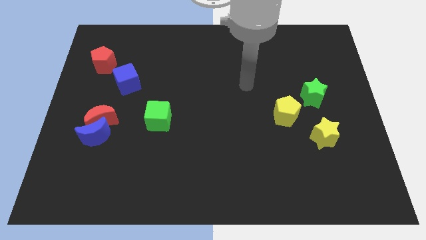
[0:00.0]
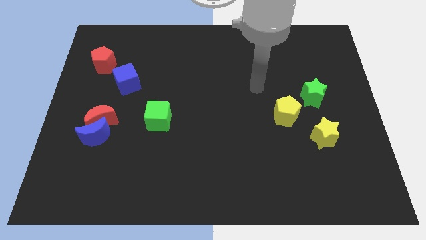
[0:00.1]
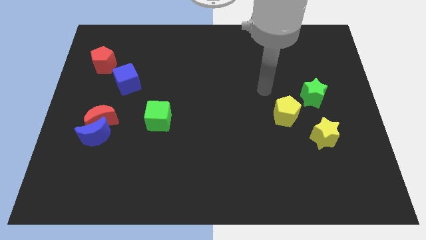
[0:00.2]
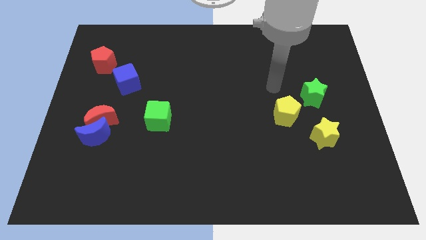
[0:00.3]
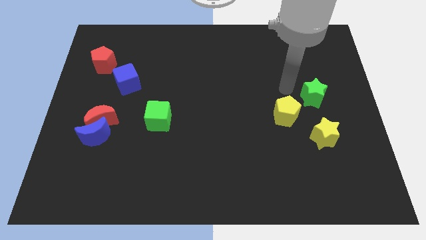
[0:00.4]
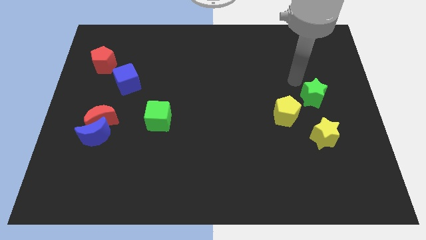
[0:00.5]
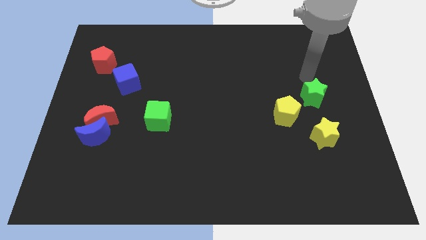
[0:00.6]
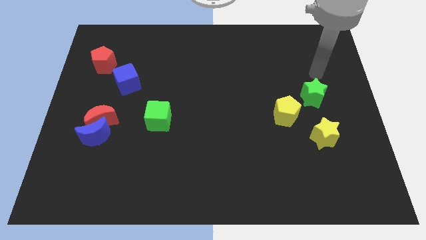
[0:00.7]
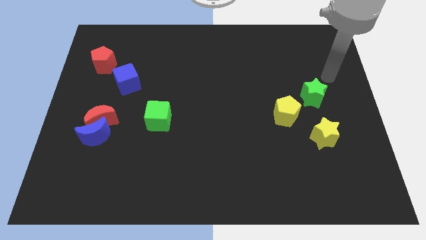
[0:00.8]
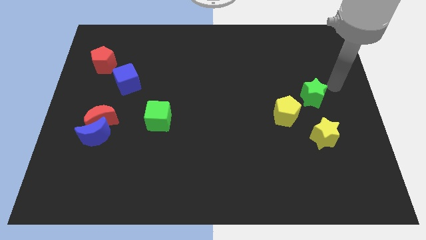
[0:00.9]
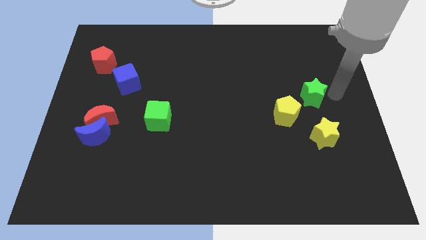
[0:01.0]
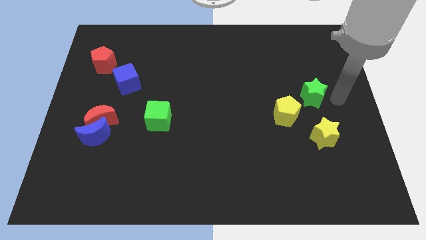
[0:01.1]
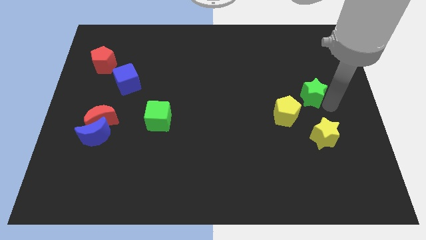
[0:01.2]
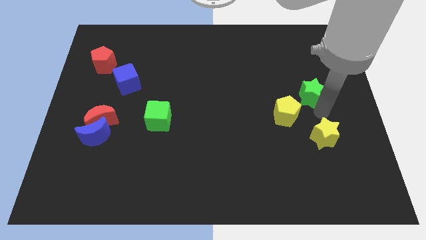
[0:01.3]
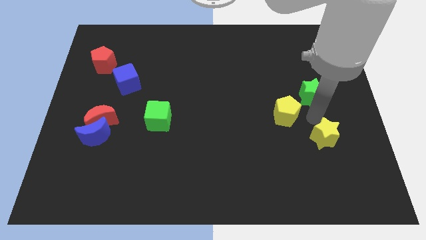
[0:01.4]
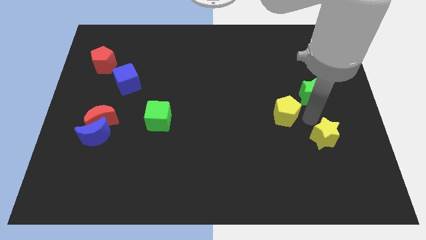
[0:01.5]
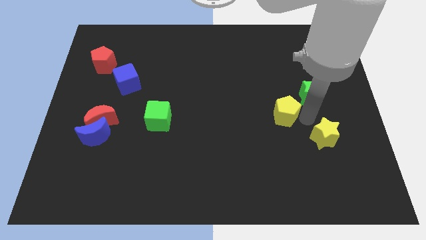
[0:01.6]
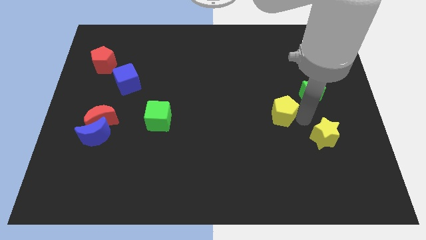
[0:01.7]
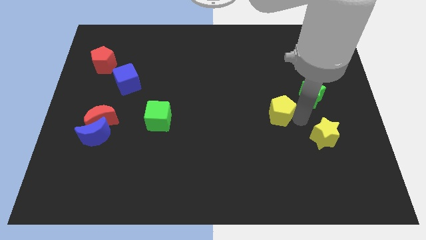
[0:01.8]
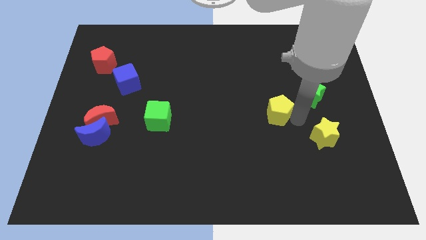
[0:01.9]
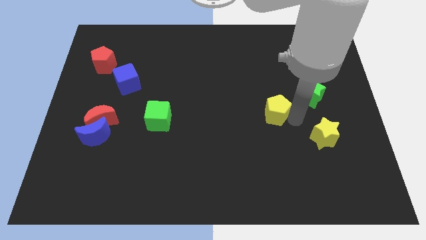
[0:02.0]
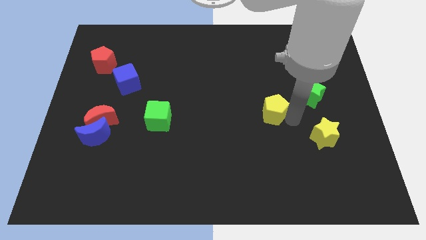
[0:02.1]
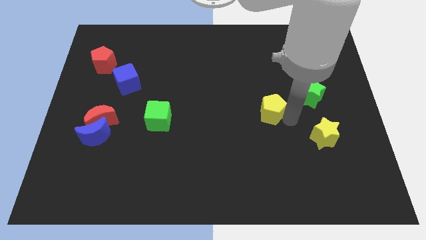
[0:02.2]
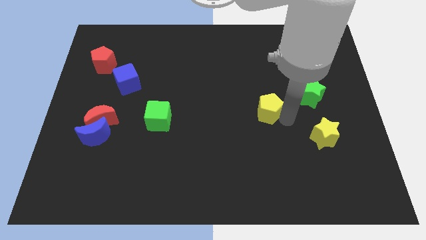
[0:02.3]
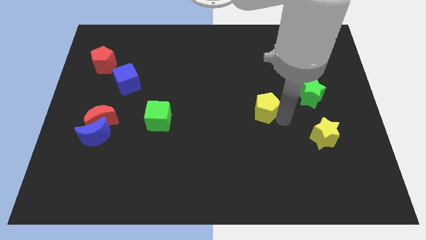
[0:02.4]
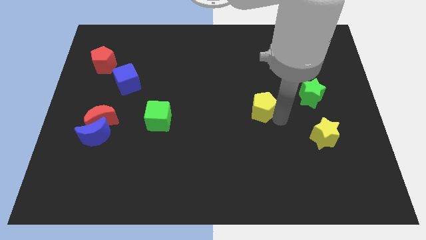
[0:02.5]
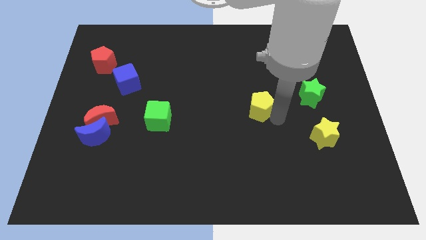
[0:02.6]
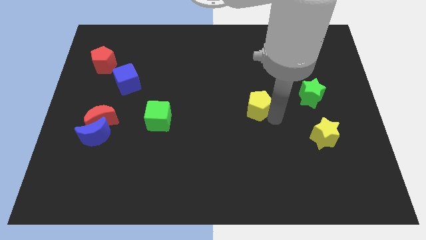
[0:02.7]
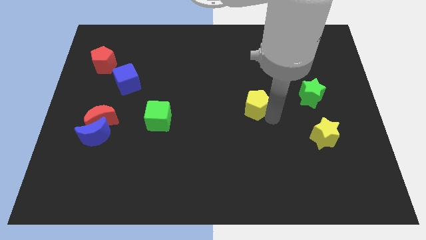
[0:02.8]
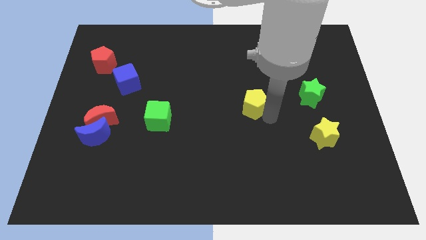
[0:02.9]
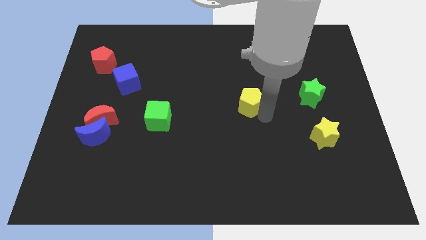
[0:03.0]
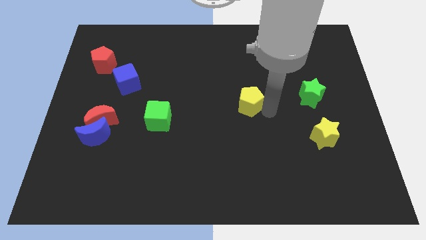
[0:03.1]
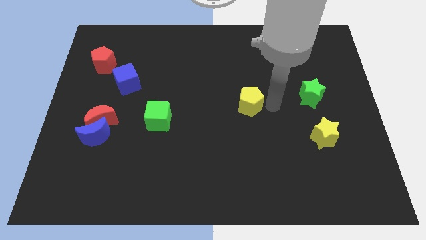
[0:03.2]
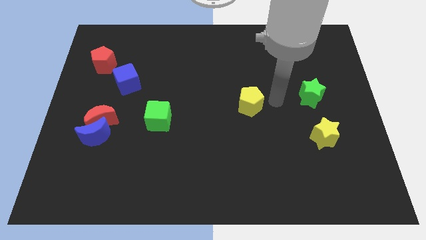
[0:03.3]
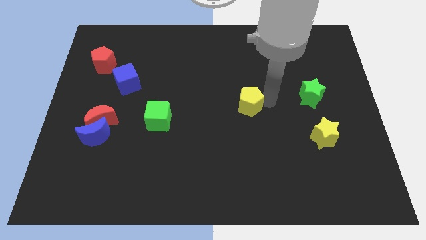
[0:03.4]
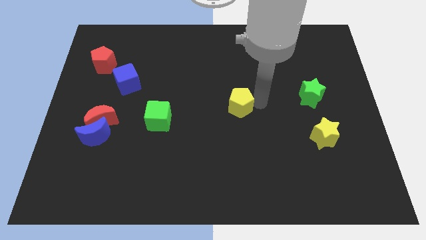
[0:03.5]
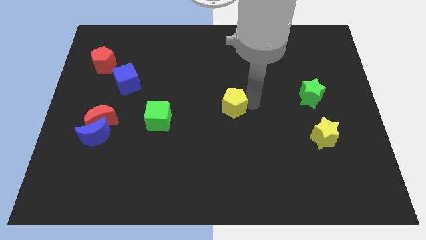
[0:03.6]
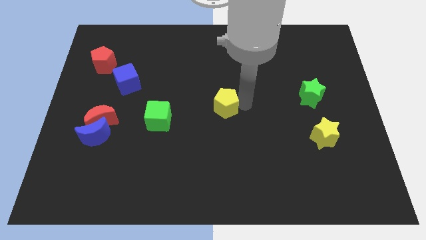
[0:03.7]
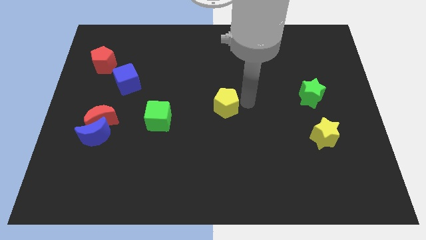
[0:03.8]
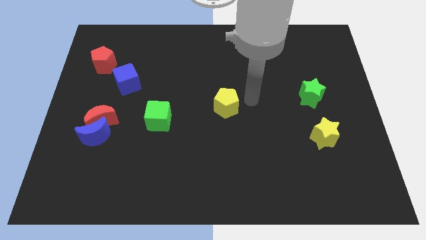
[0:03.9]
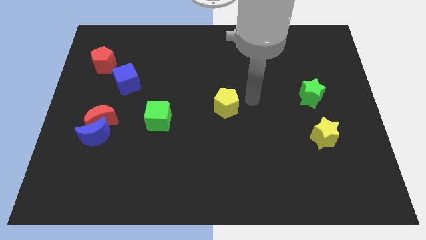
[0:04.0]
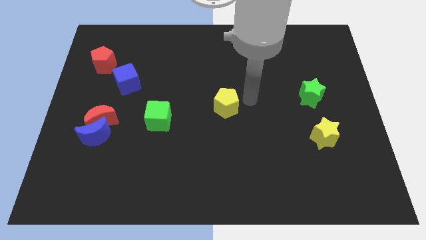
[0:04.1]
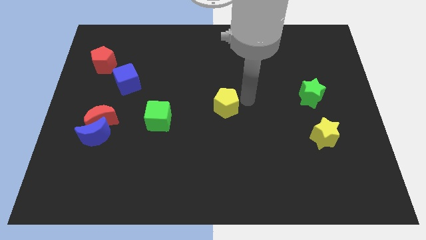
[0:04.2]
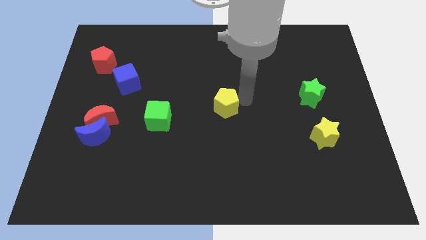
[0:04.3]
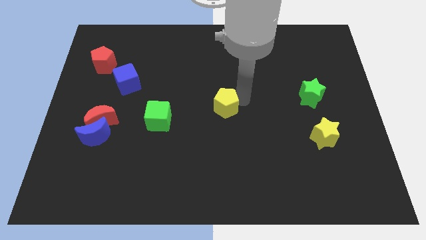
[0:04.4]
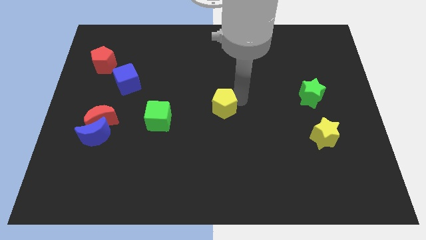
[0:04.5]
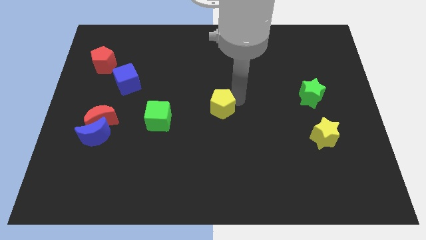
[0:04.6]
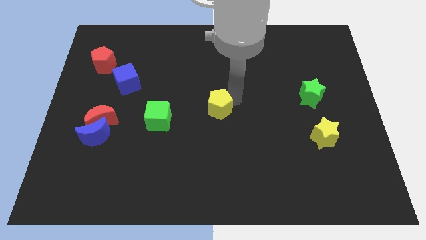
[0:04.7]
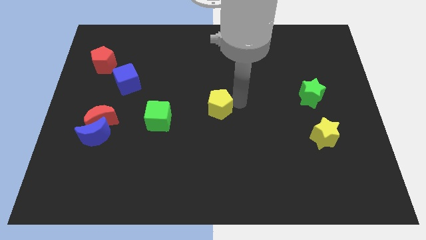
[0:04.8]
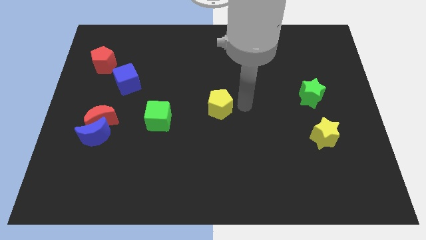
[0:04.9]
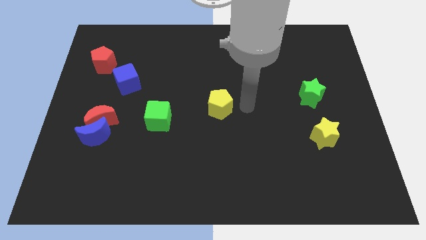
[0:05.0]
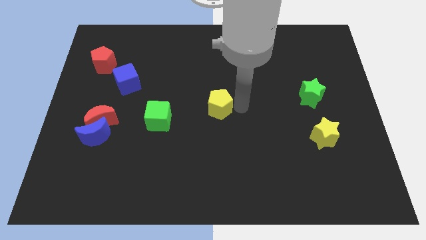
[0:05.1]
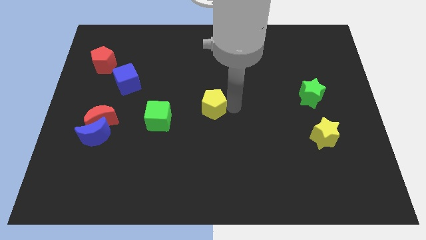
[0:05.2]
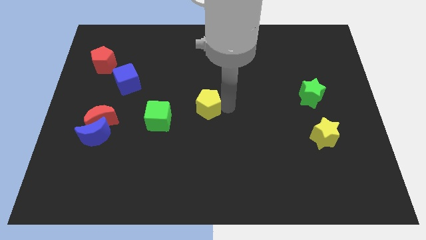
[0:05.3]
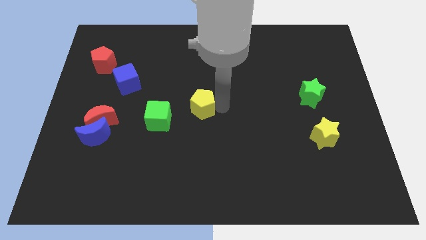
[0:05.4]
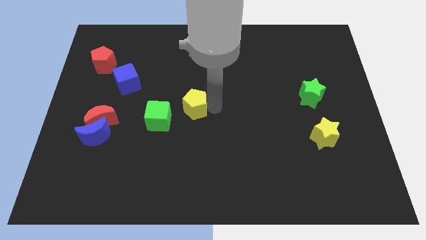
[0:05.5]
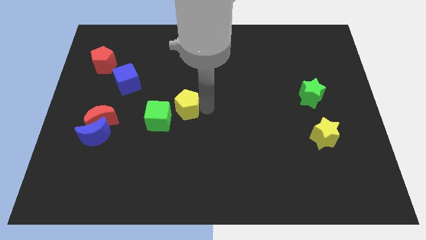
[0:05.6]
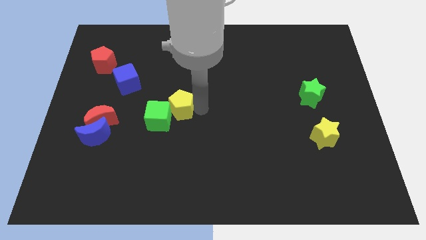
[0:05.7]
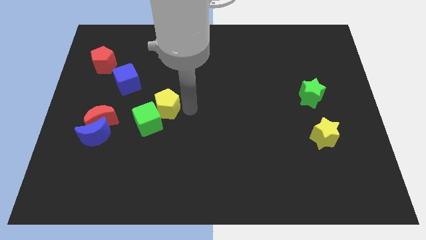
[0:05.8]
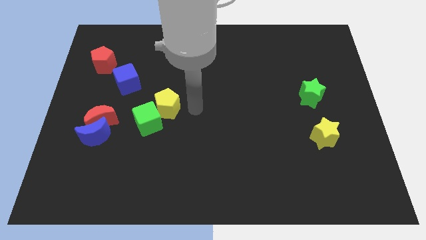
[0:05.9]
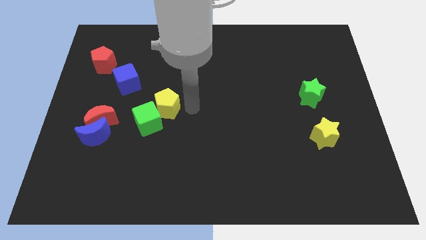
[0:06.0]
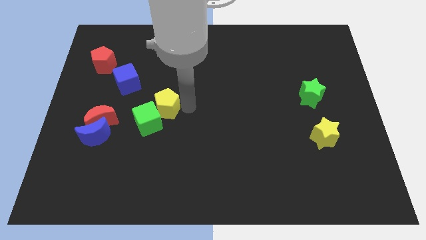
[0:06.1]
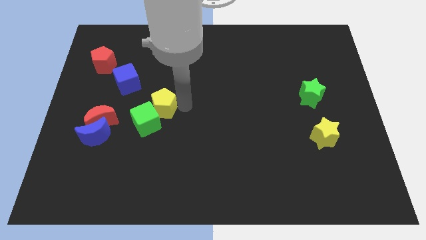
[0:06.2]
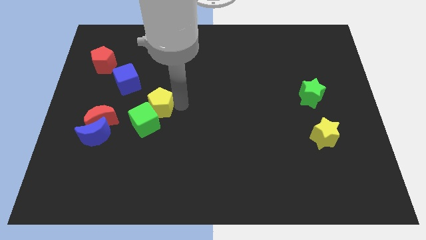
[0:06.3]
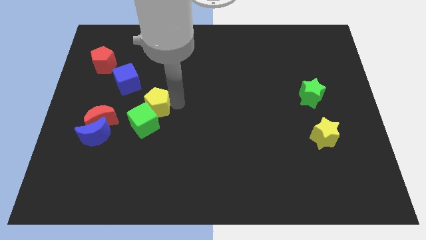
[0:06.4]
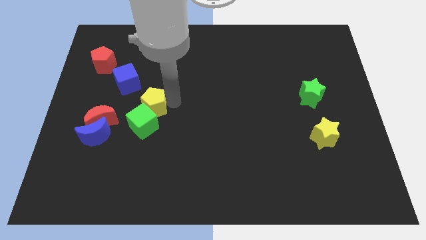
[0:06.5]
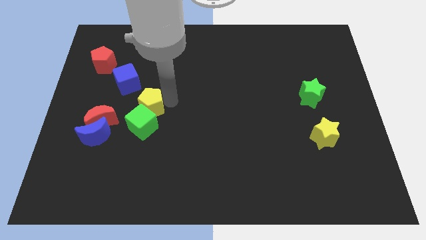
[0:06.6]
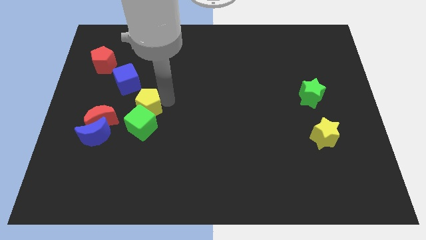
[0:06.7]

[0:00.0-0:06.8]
put the yellow pentagon to the top left side of the green cube

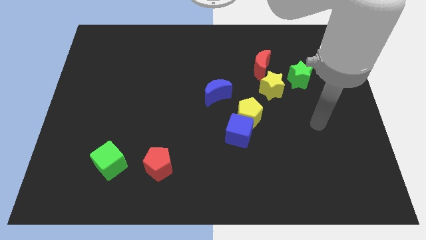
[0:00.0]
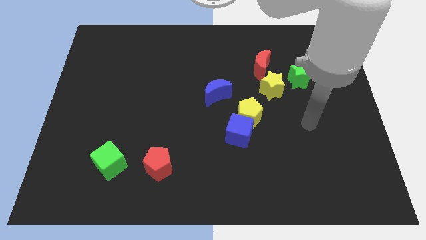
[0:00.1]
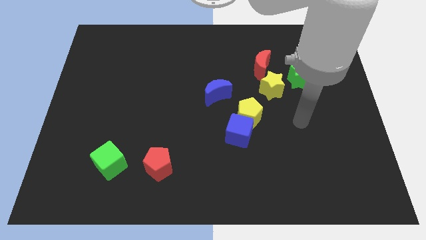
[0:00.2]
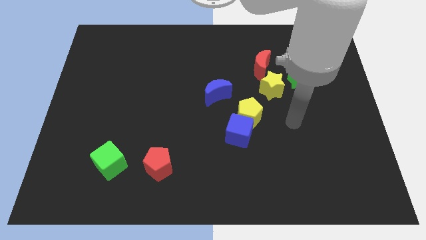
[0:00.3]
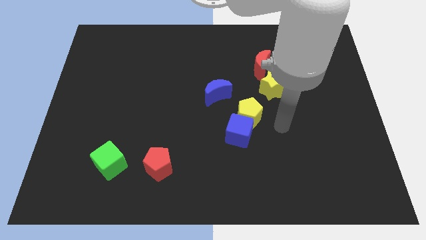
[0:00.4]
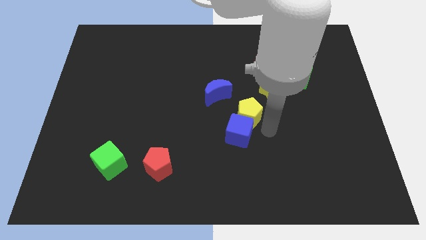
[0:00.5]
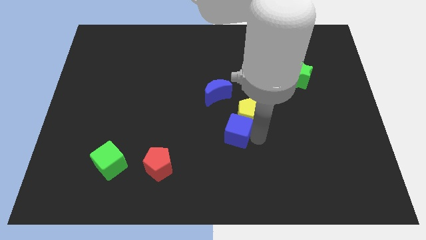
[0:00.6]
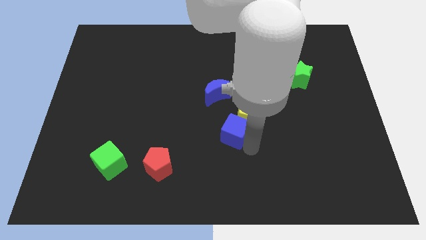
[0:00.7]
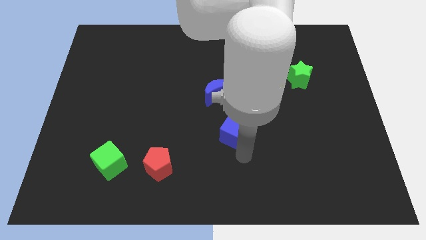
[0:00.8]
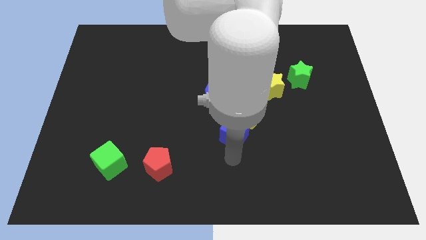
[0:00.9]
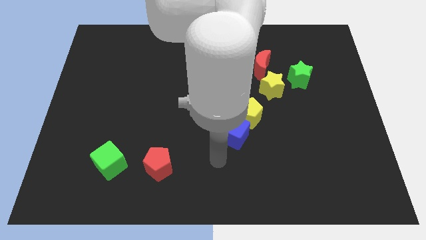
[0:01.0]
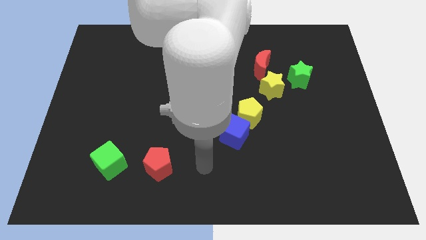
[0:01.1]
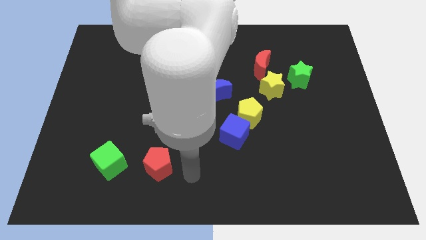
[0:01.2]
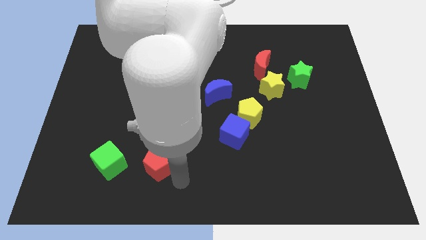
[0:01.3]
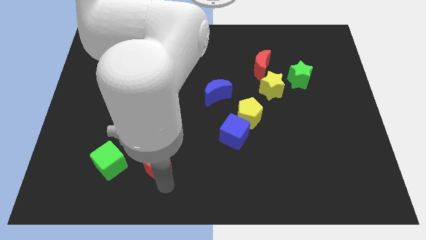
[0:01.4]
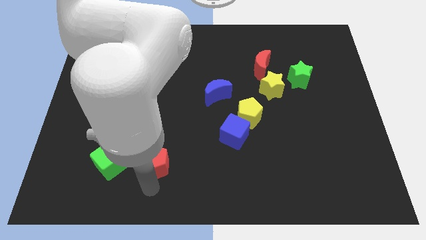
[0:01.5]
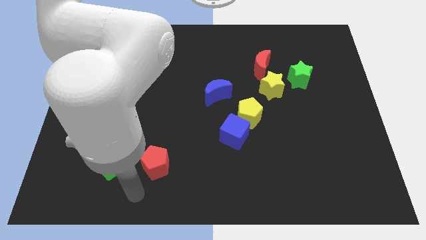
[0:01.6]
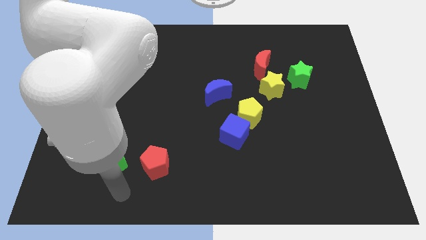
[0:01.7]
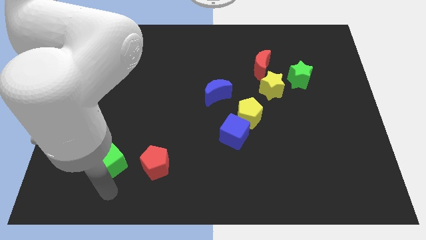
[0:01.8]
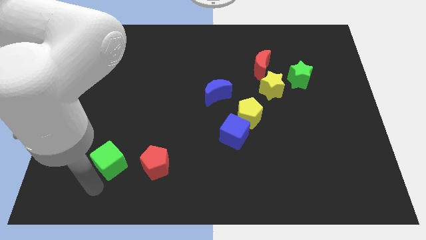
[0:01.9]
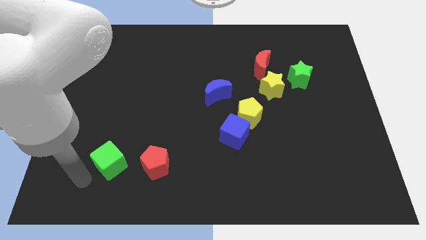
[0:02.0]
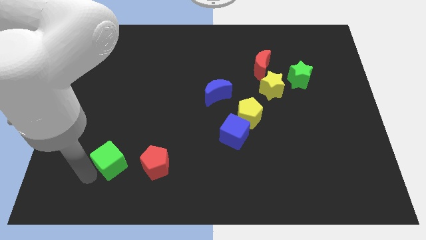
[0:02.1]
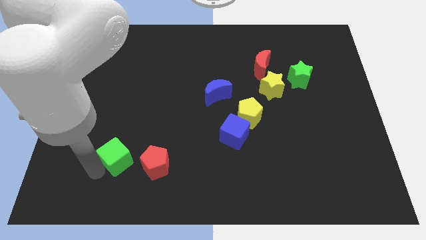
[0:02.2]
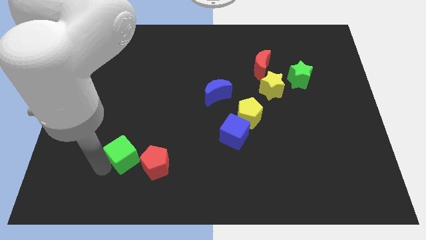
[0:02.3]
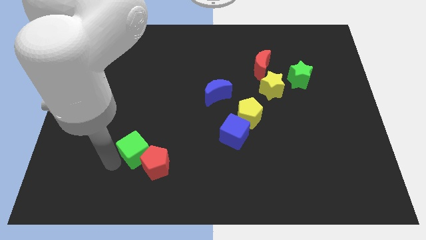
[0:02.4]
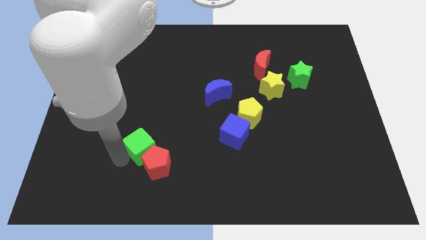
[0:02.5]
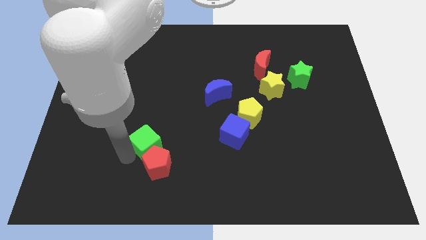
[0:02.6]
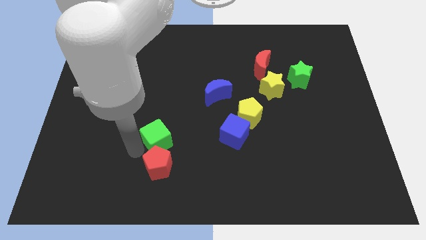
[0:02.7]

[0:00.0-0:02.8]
put the green cube diagonally up and to the right of the red pentagon
